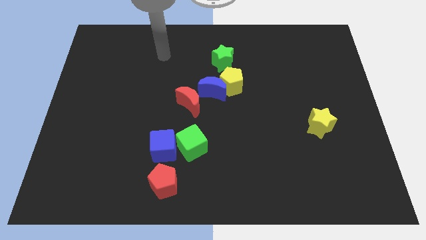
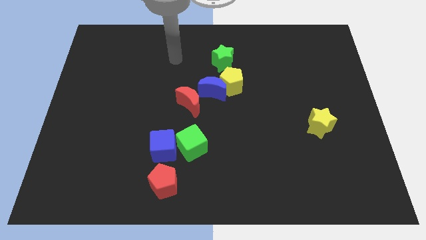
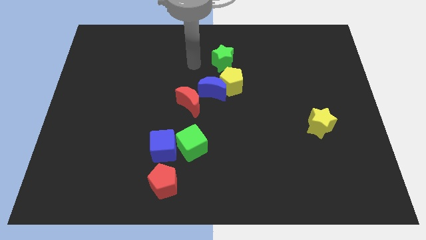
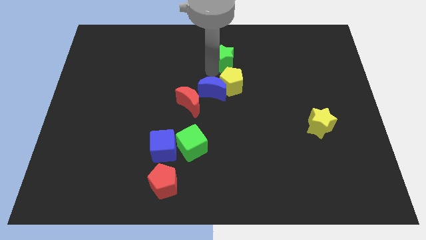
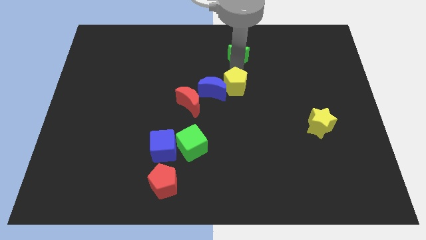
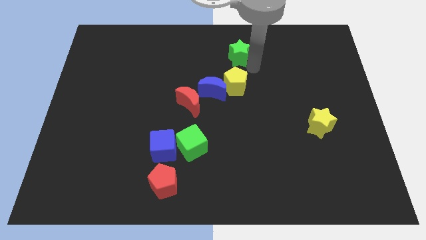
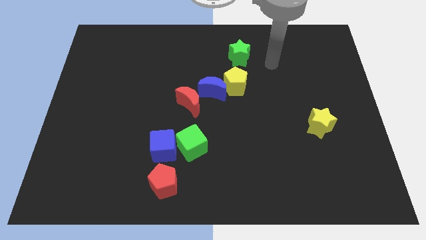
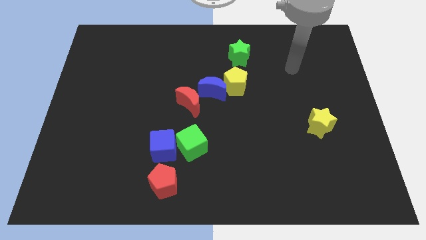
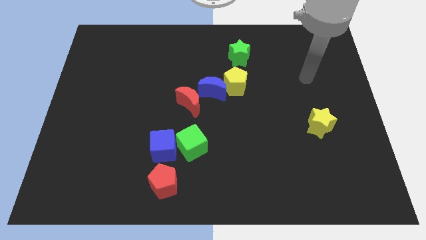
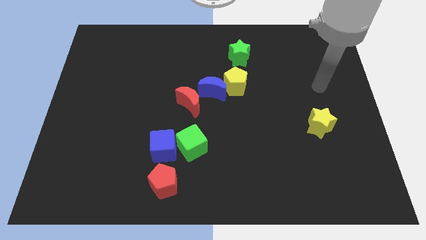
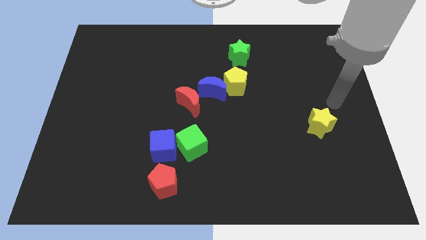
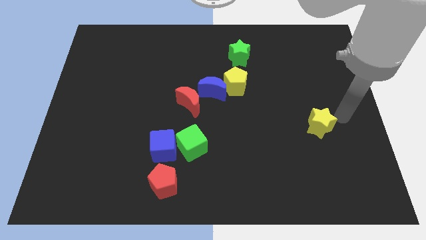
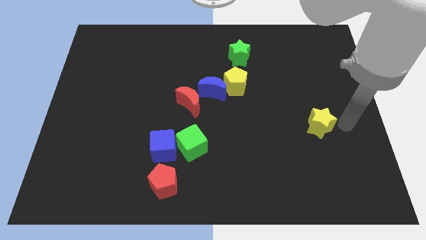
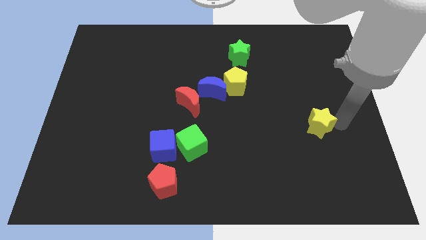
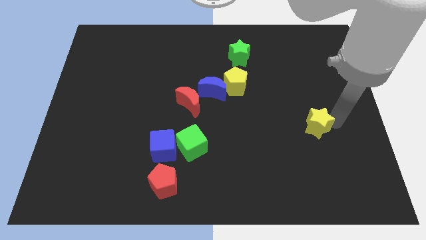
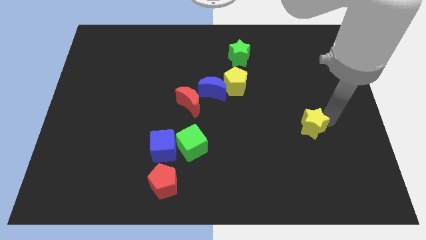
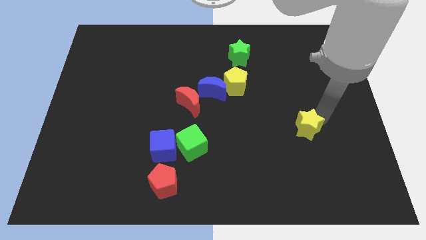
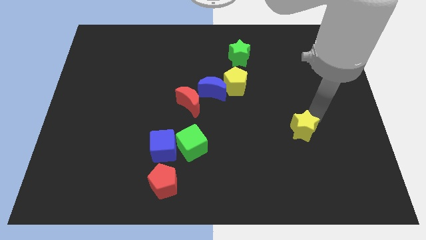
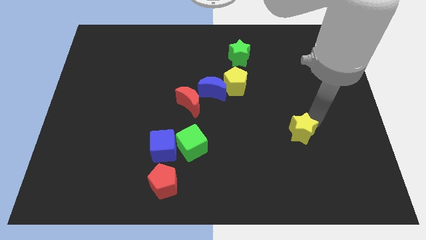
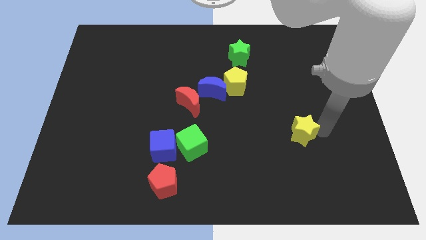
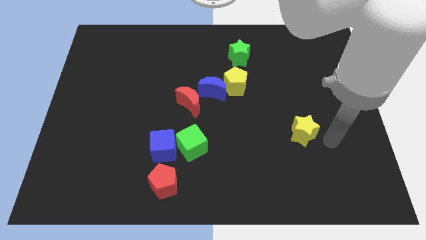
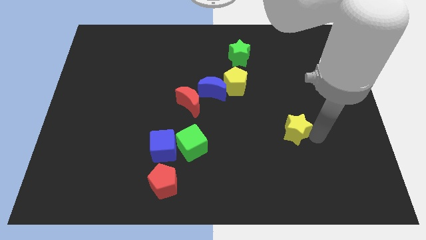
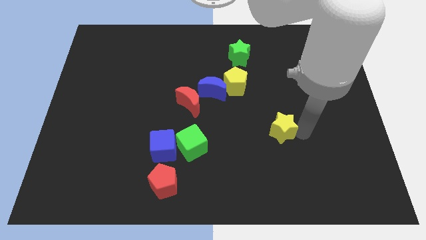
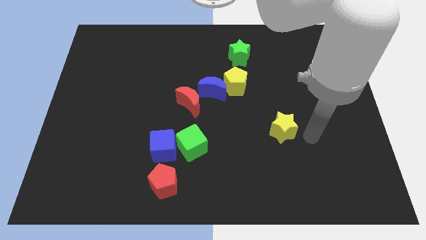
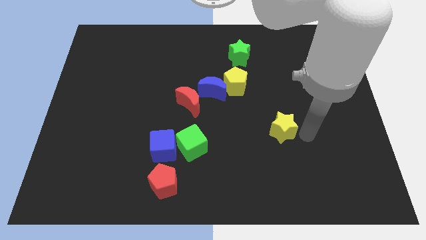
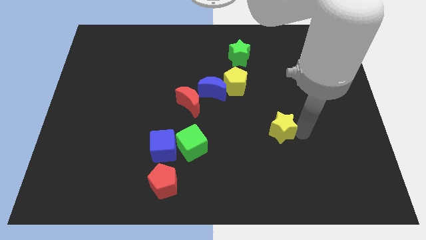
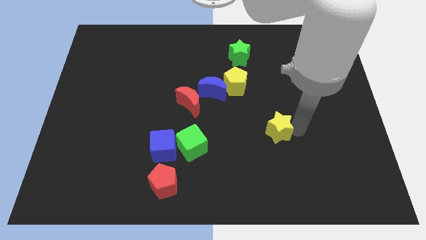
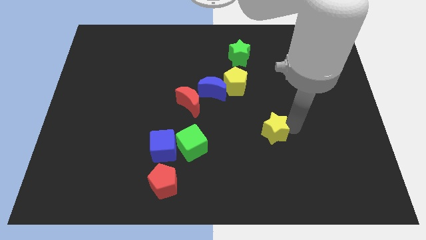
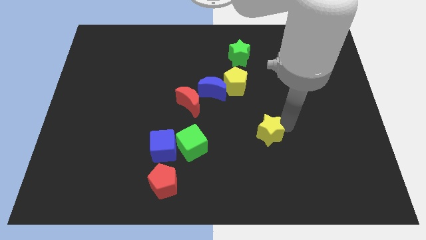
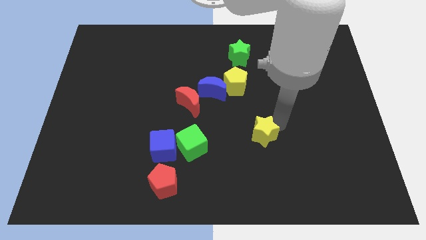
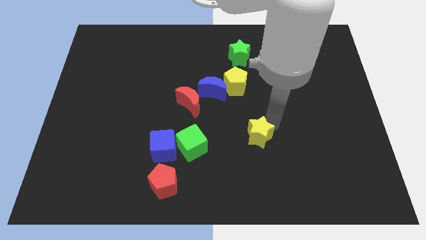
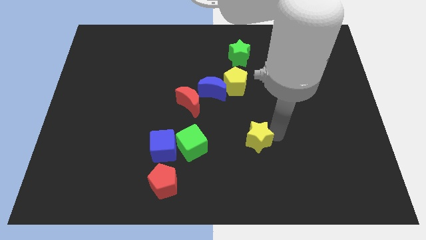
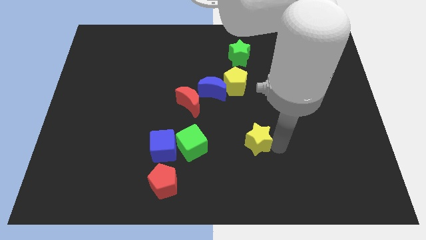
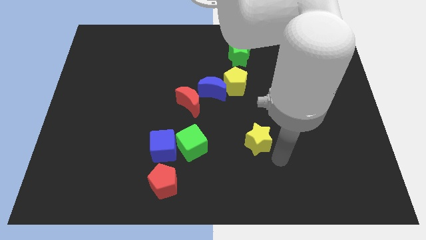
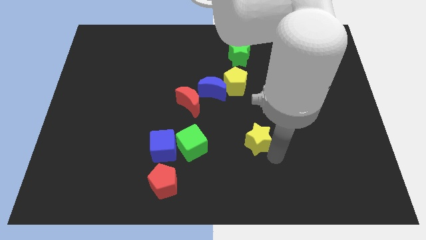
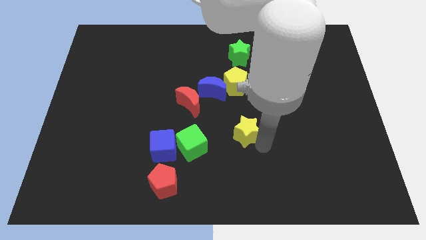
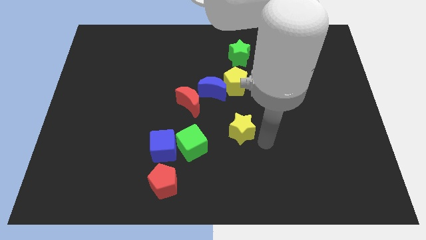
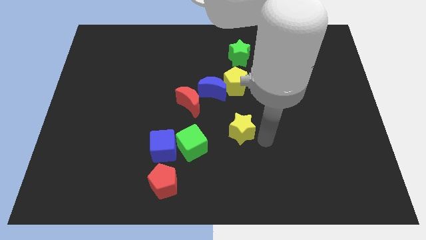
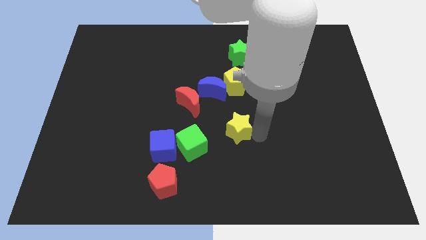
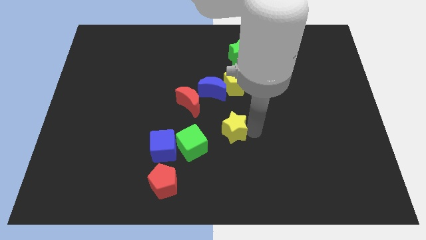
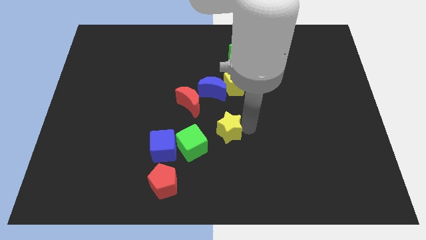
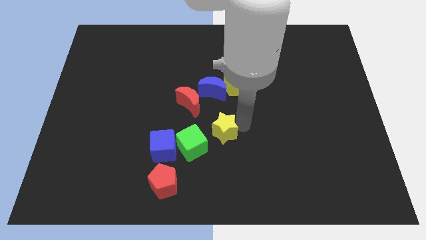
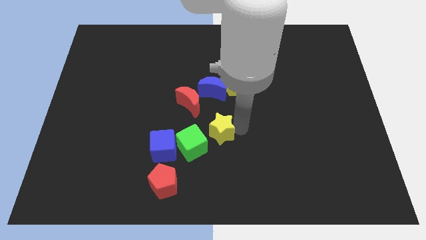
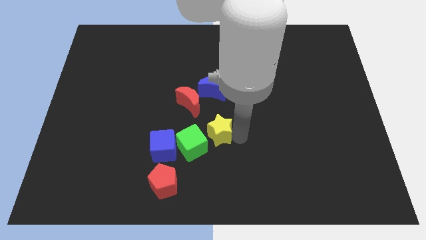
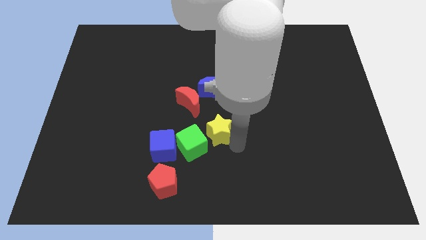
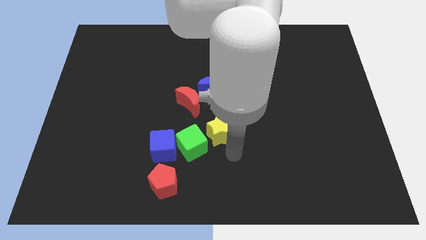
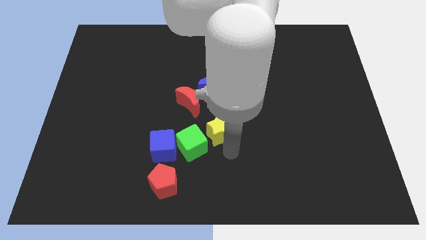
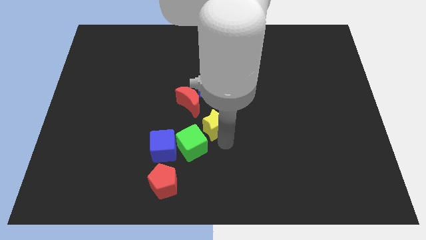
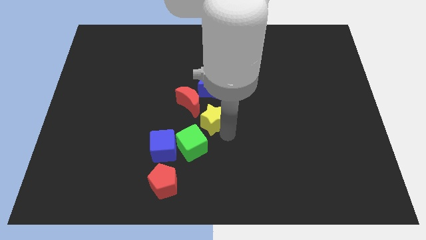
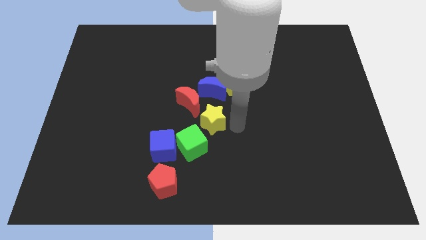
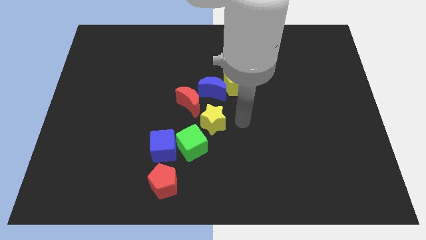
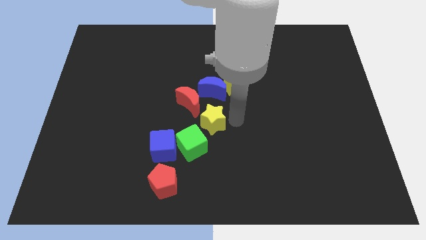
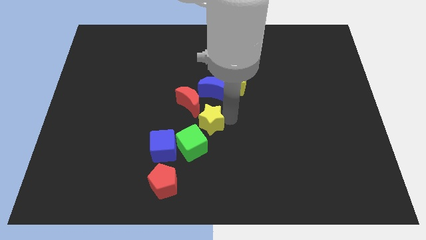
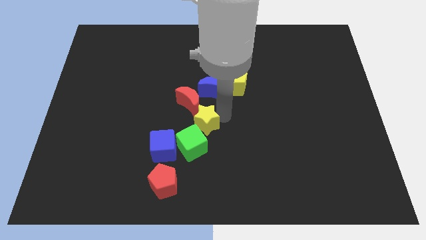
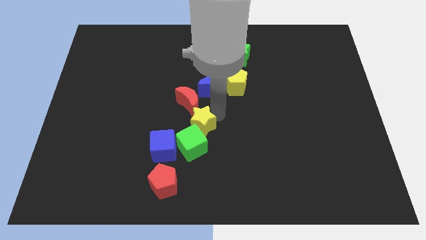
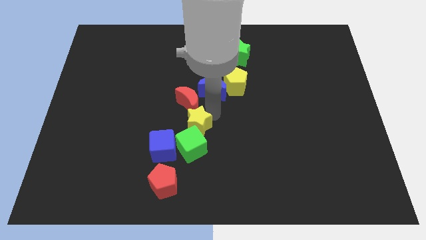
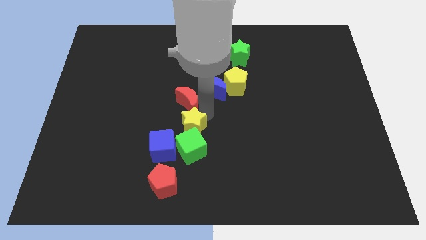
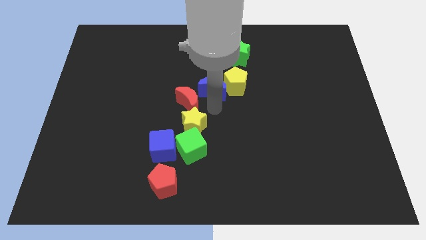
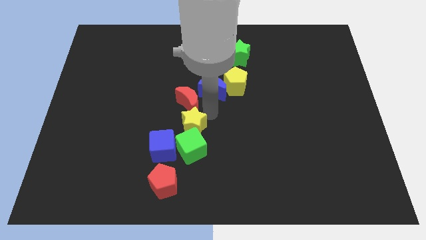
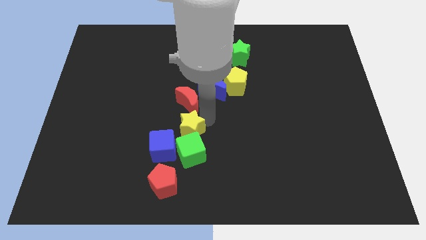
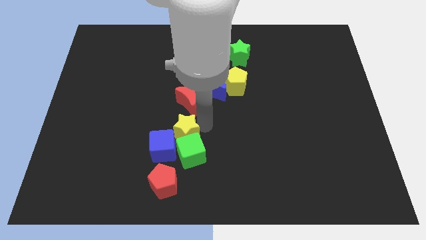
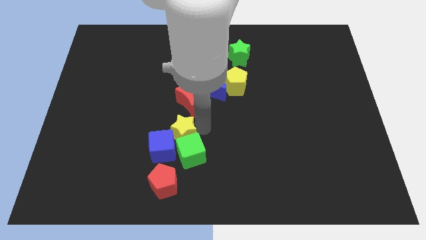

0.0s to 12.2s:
move the yellow star to the blue cube

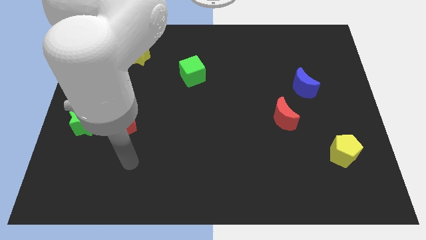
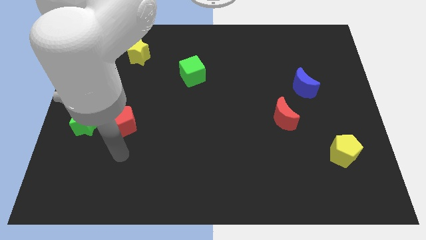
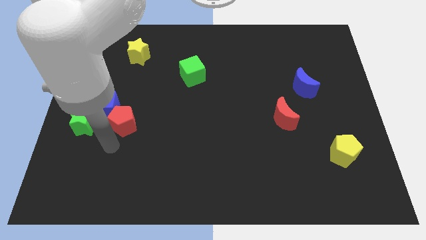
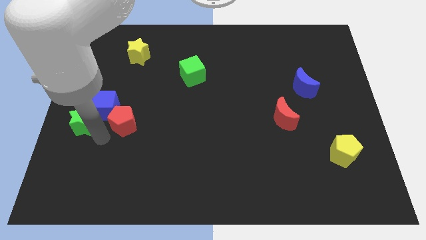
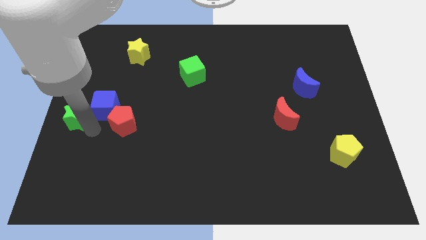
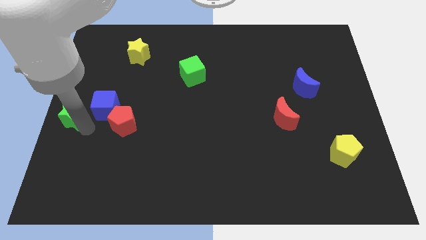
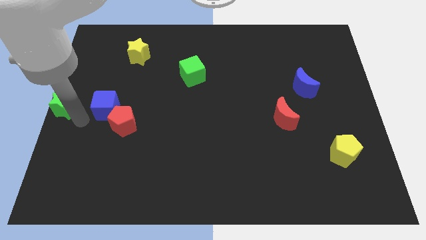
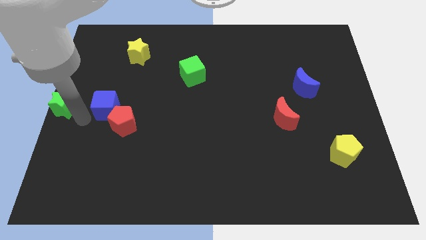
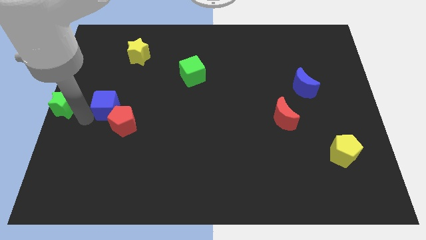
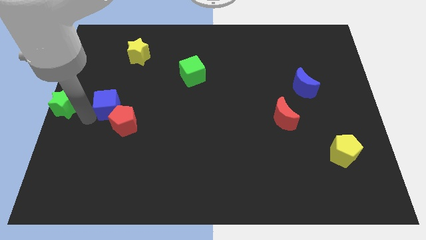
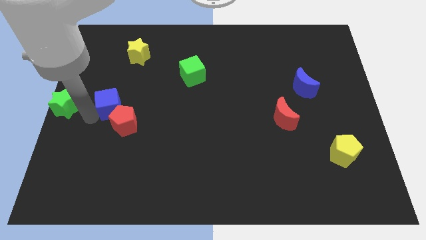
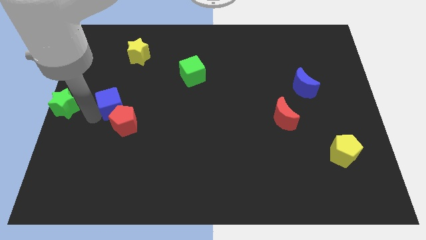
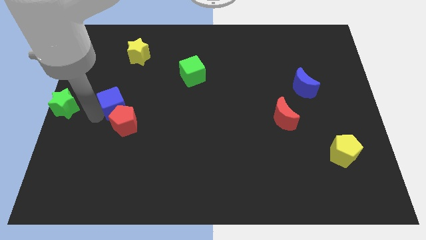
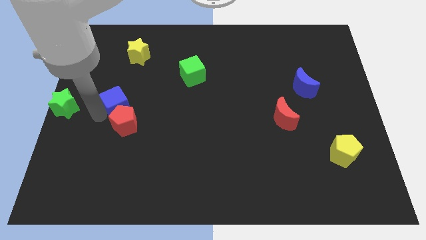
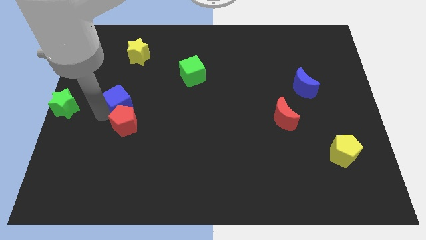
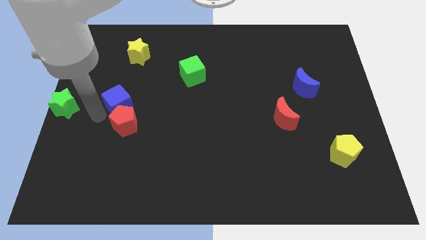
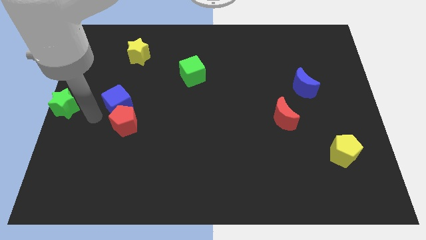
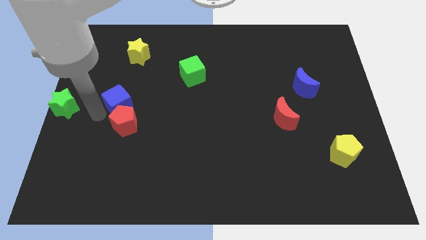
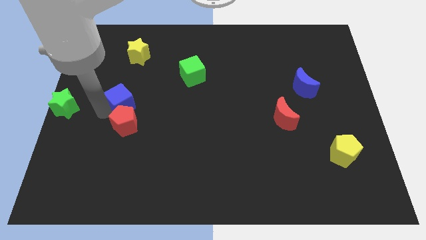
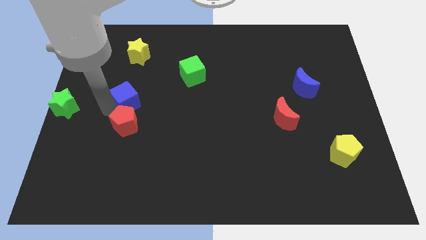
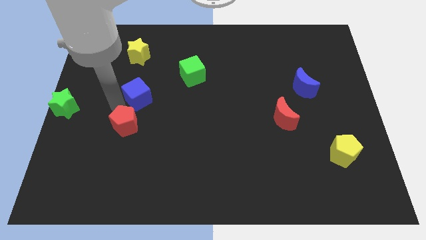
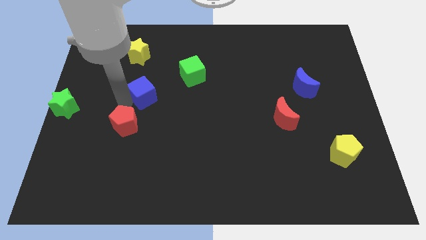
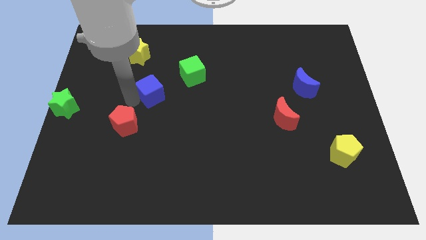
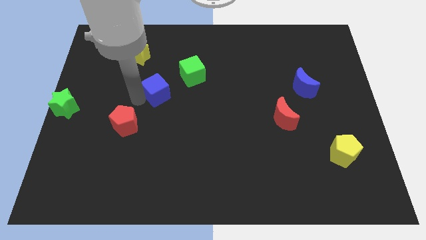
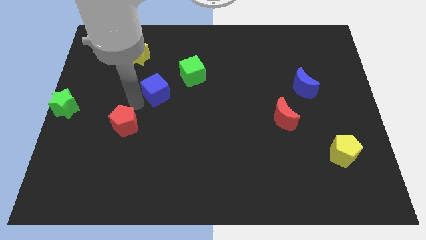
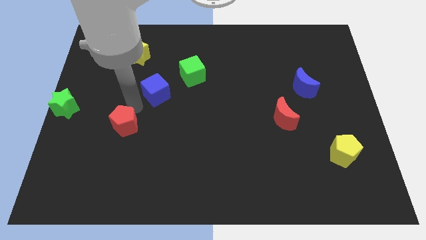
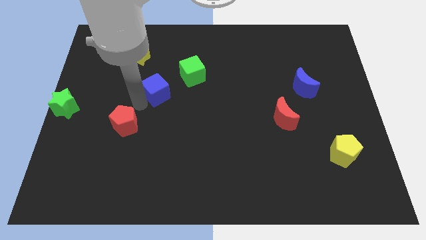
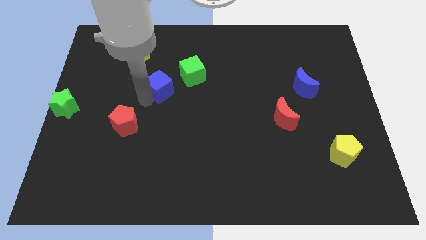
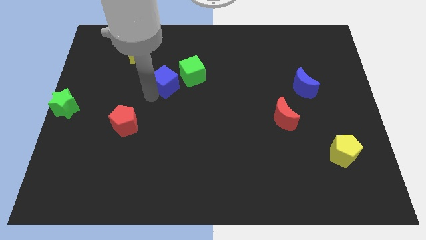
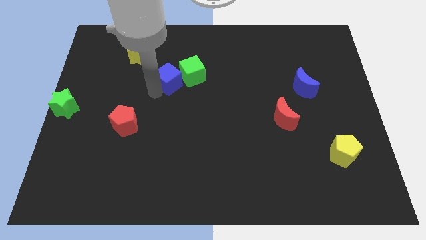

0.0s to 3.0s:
move the blue cube close to the green cube
